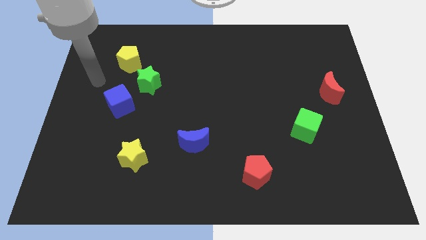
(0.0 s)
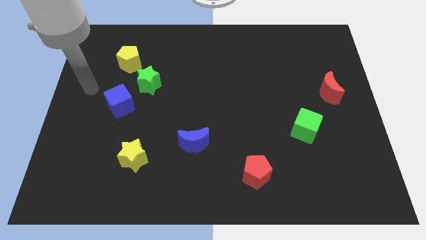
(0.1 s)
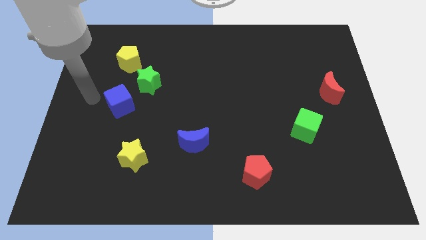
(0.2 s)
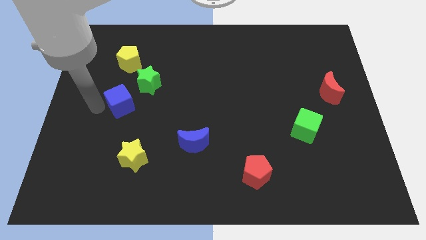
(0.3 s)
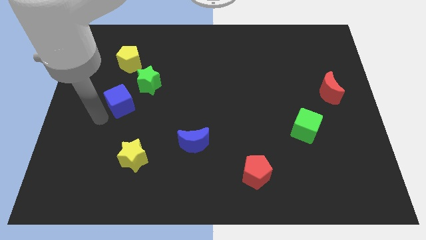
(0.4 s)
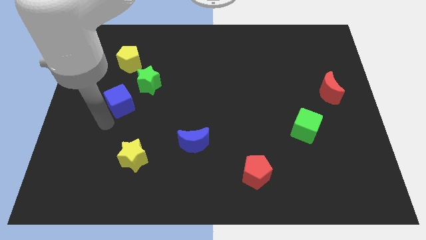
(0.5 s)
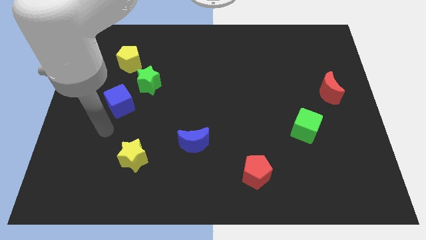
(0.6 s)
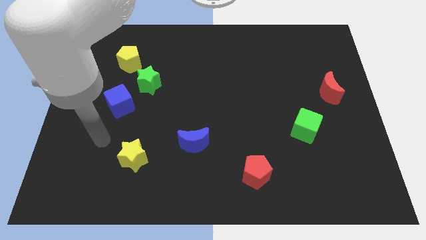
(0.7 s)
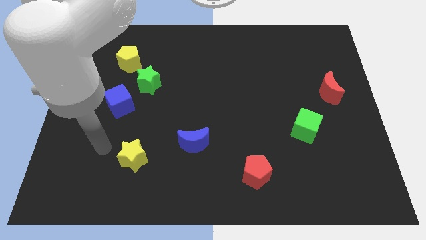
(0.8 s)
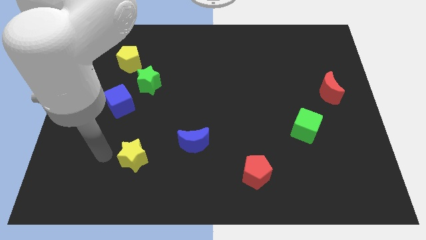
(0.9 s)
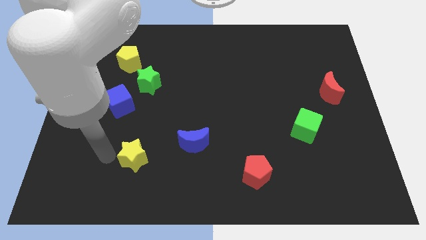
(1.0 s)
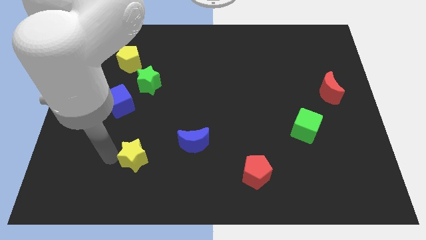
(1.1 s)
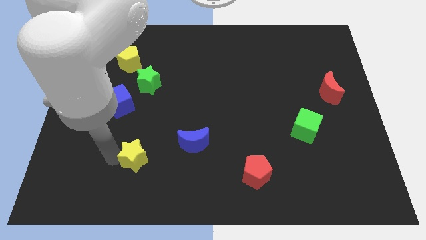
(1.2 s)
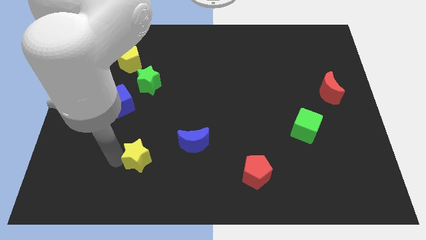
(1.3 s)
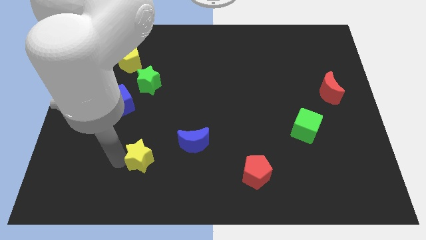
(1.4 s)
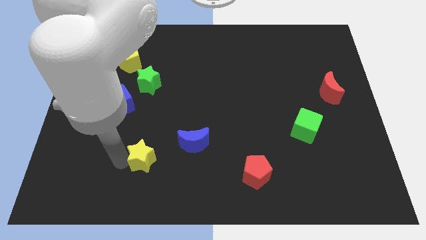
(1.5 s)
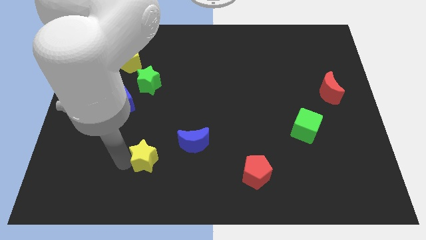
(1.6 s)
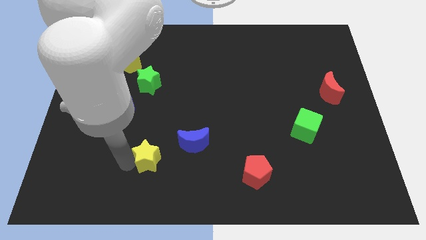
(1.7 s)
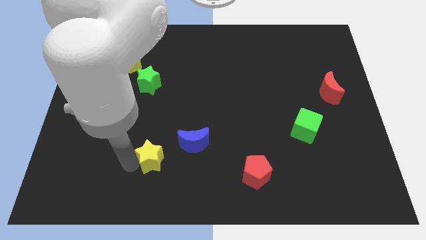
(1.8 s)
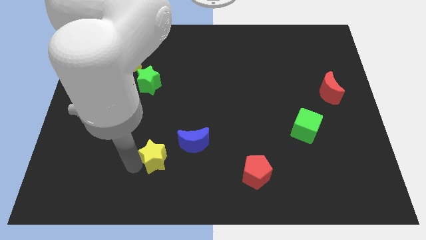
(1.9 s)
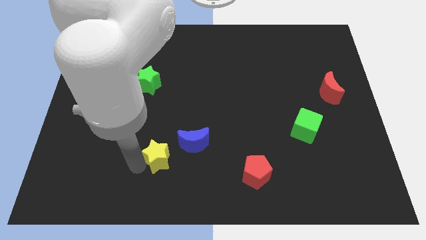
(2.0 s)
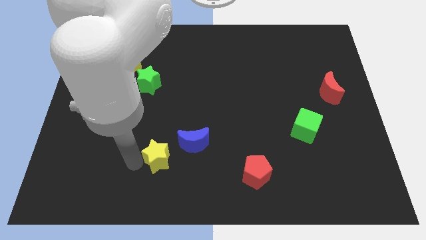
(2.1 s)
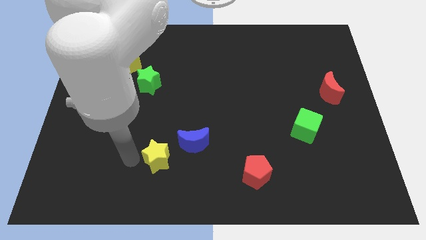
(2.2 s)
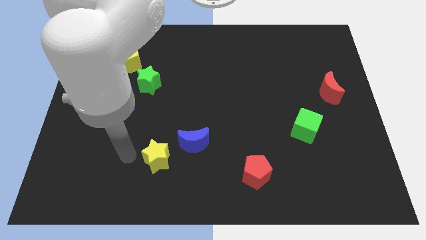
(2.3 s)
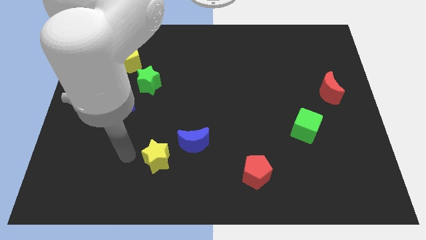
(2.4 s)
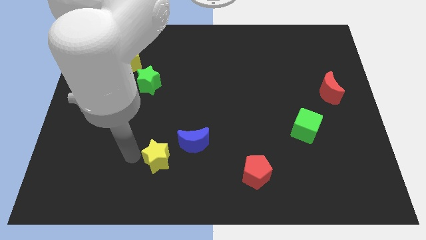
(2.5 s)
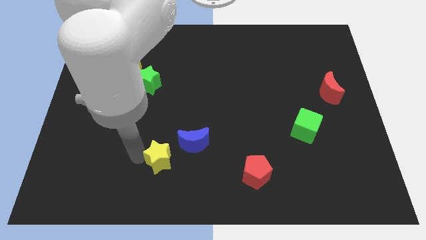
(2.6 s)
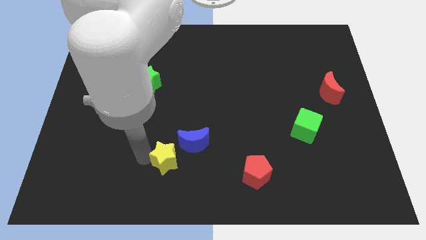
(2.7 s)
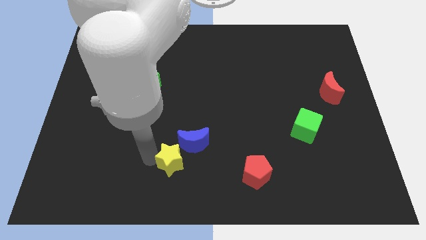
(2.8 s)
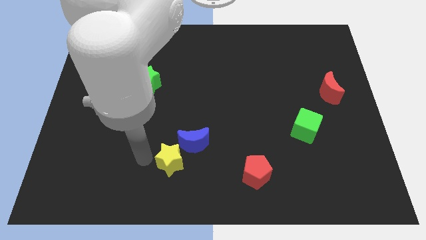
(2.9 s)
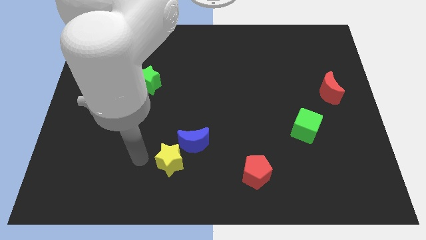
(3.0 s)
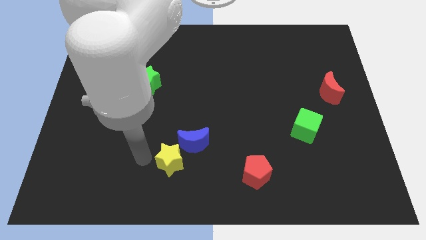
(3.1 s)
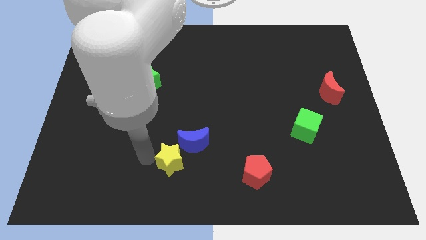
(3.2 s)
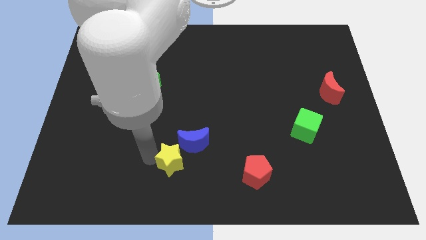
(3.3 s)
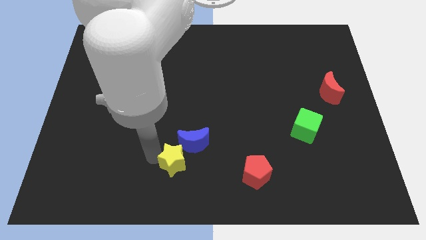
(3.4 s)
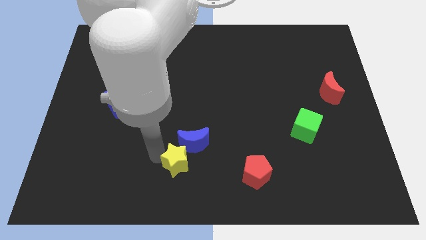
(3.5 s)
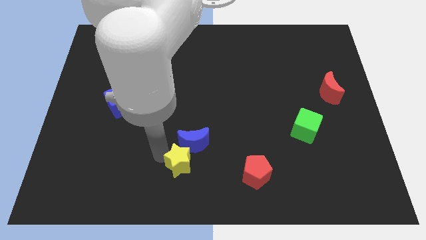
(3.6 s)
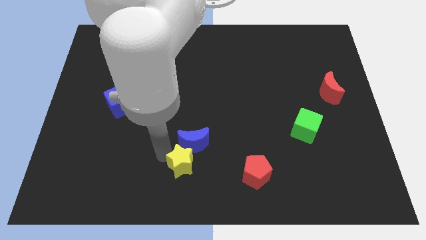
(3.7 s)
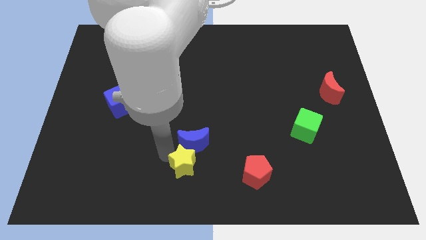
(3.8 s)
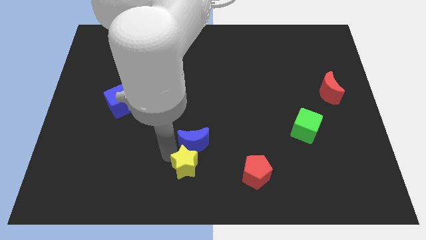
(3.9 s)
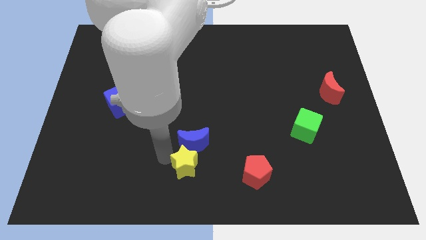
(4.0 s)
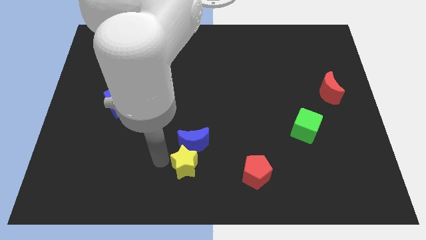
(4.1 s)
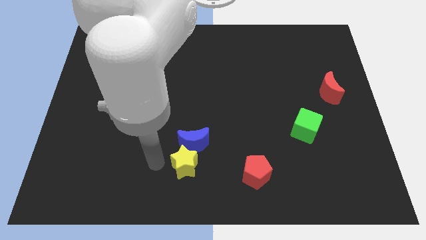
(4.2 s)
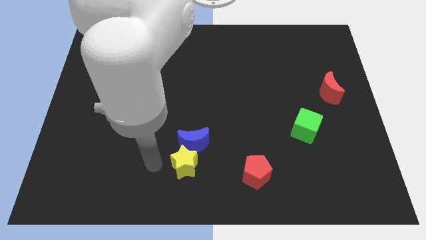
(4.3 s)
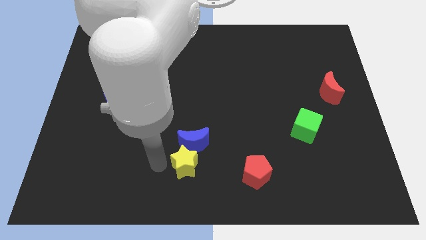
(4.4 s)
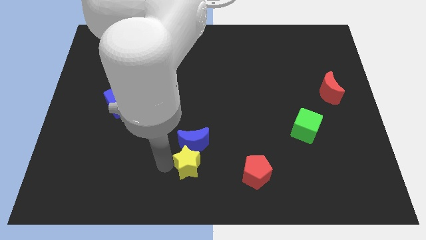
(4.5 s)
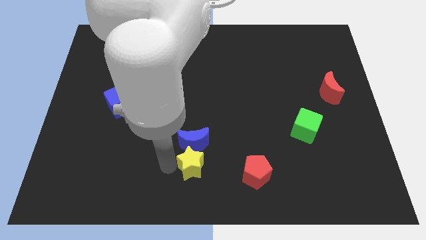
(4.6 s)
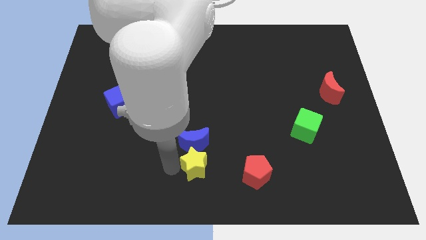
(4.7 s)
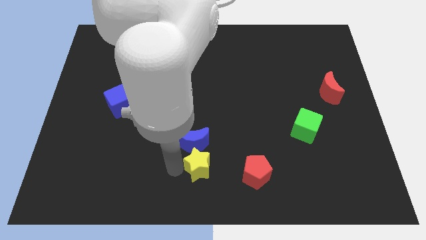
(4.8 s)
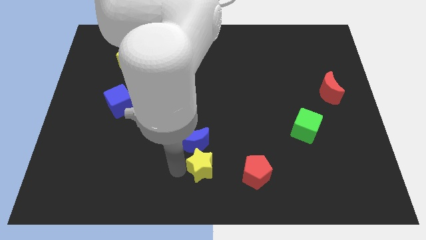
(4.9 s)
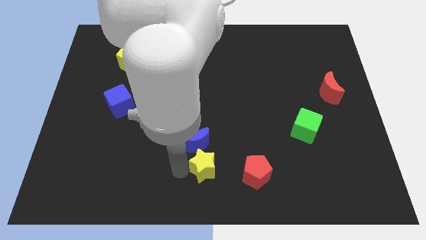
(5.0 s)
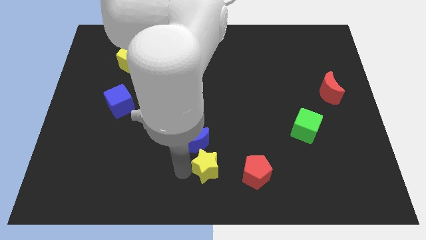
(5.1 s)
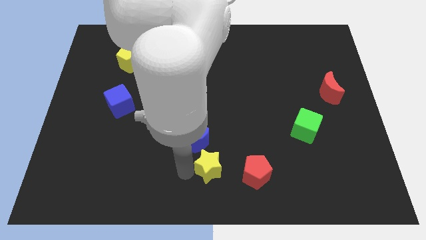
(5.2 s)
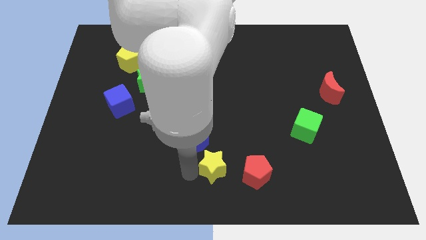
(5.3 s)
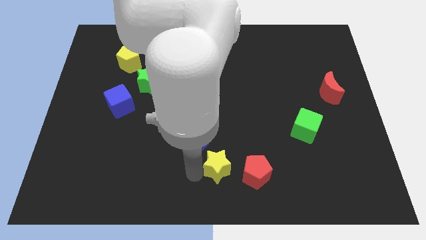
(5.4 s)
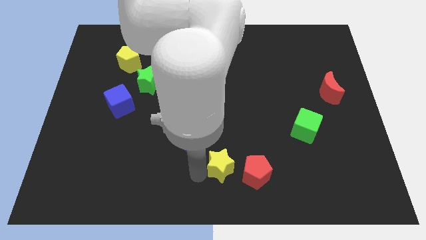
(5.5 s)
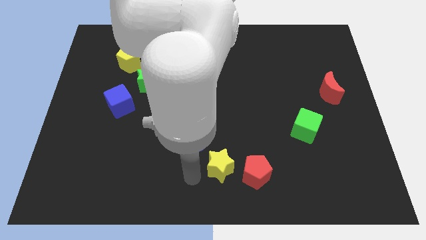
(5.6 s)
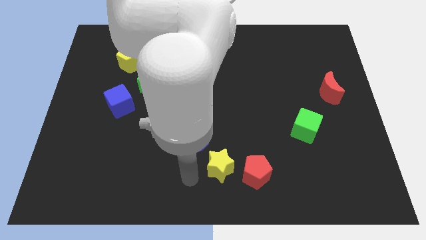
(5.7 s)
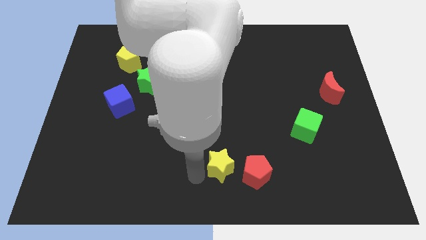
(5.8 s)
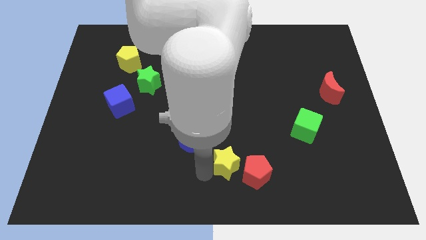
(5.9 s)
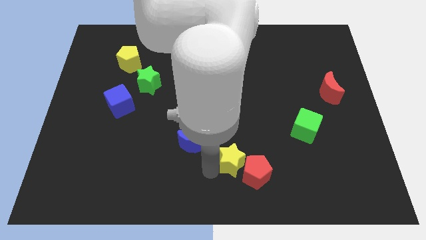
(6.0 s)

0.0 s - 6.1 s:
push the yellow star to the right

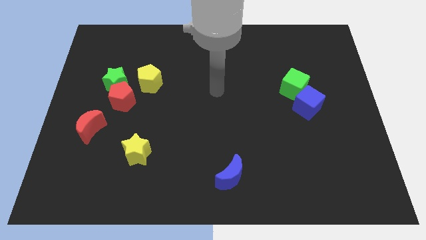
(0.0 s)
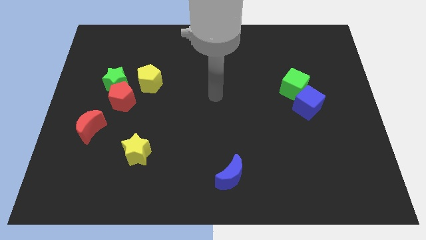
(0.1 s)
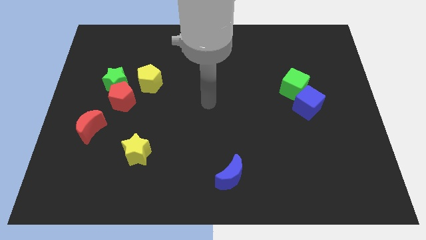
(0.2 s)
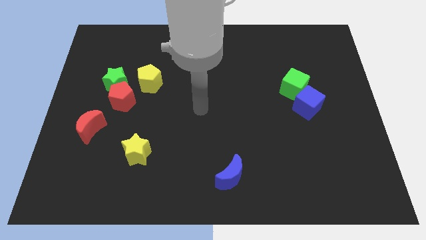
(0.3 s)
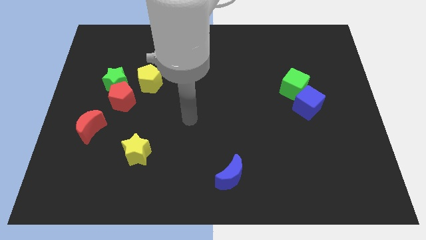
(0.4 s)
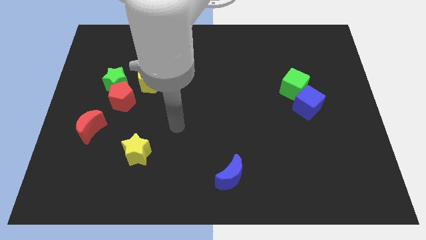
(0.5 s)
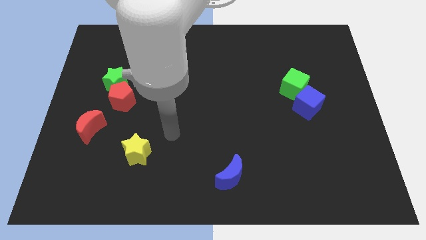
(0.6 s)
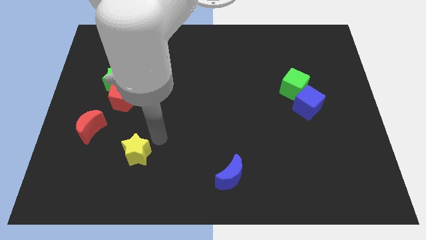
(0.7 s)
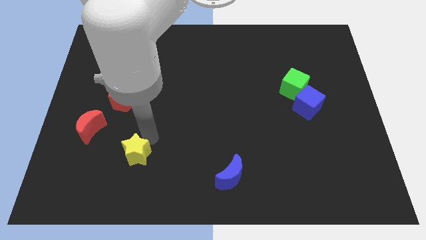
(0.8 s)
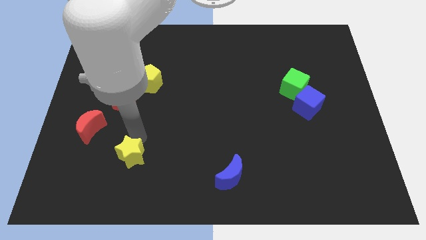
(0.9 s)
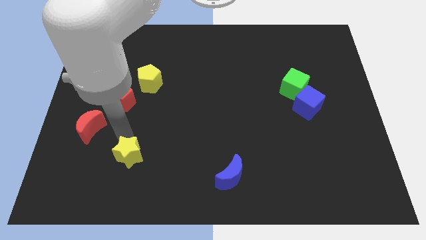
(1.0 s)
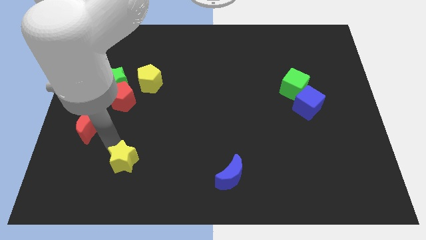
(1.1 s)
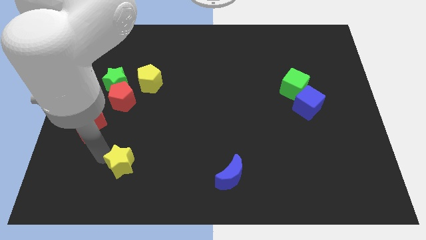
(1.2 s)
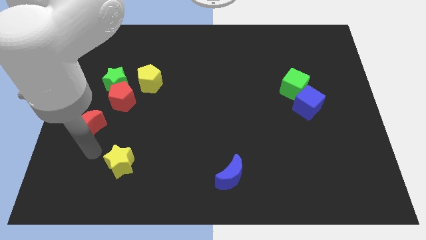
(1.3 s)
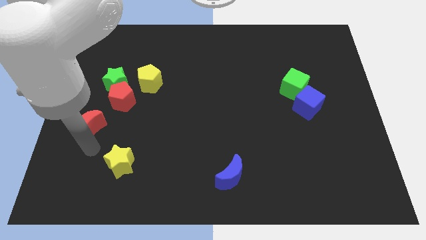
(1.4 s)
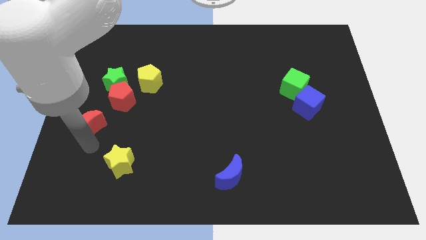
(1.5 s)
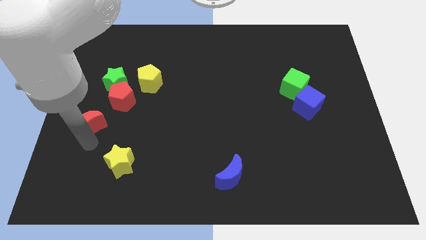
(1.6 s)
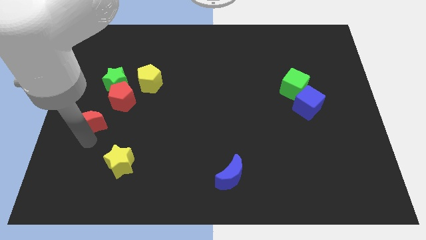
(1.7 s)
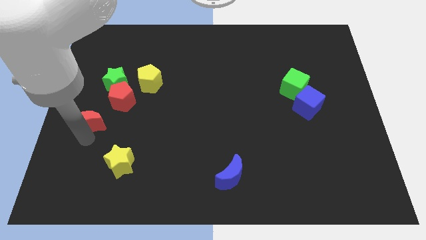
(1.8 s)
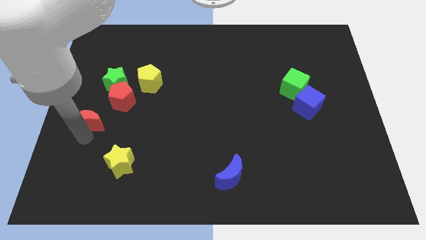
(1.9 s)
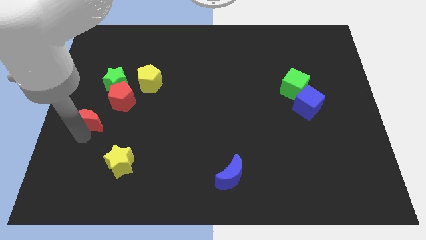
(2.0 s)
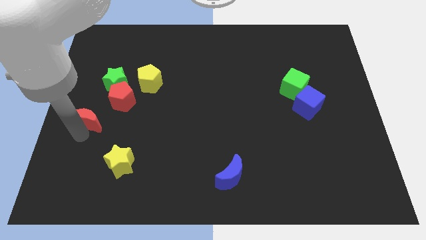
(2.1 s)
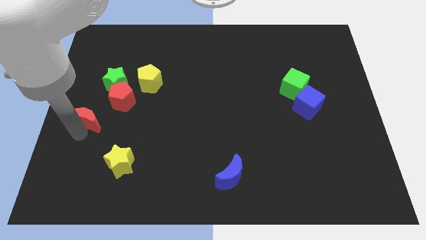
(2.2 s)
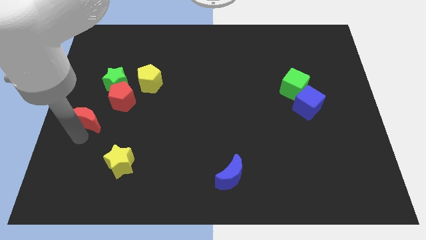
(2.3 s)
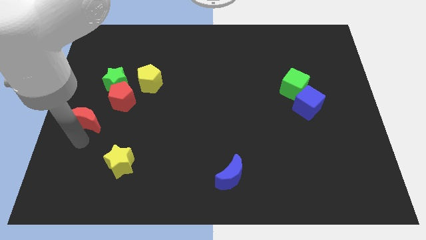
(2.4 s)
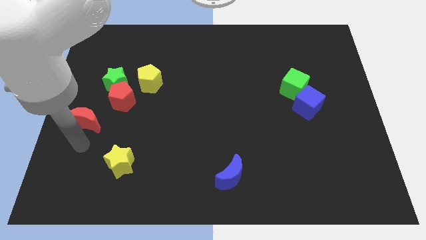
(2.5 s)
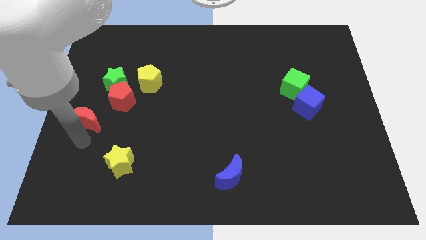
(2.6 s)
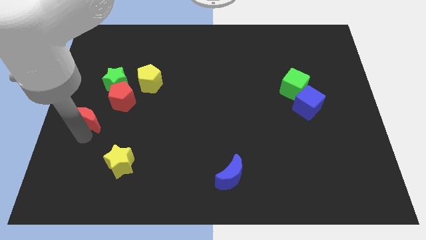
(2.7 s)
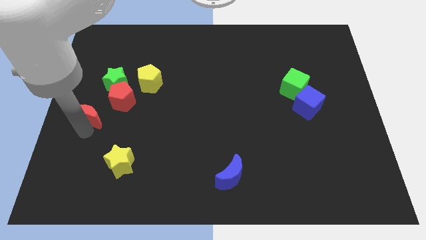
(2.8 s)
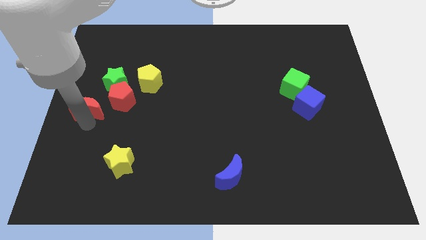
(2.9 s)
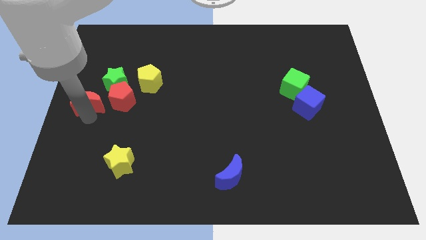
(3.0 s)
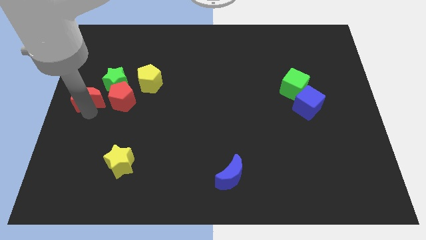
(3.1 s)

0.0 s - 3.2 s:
move the red moon up a little
